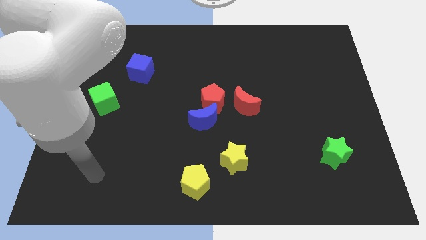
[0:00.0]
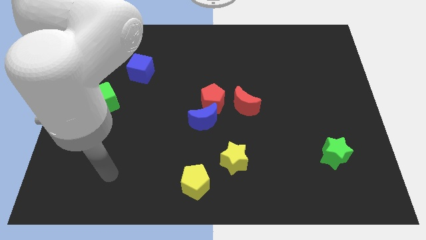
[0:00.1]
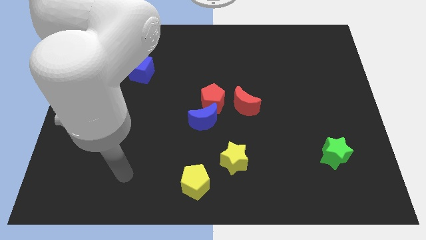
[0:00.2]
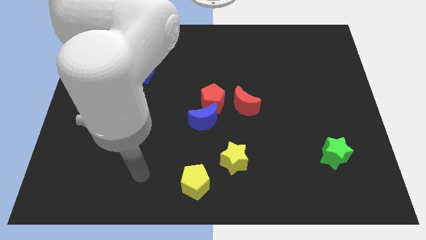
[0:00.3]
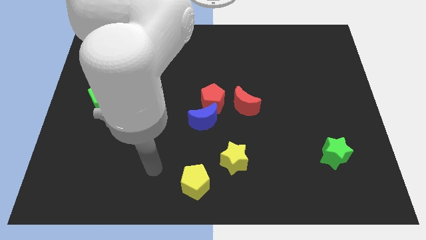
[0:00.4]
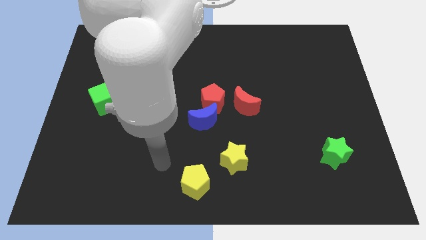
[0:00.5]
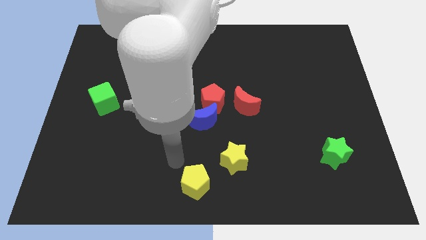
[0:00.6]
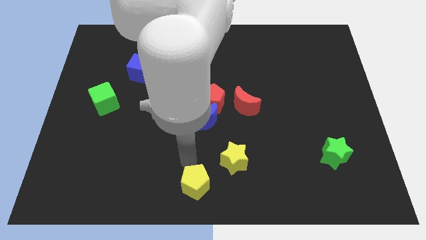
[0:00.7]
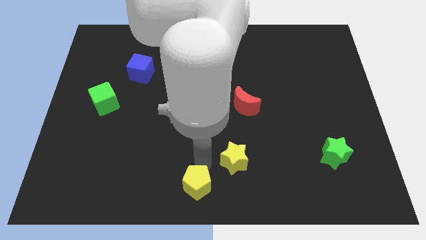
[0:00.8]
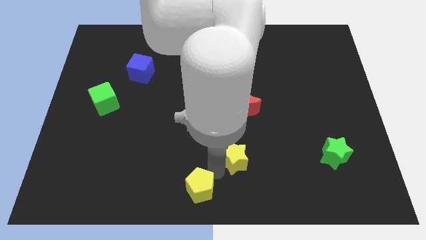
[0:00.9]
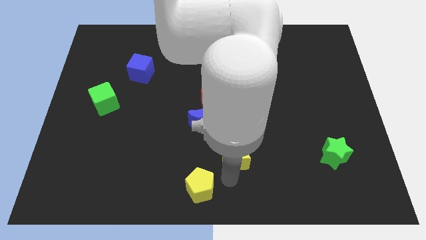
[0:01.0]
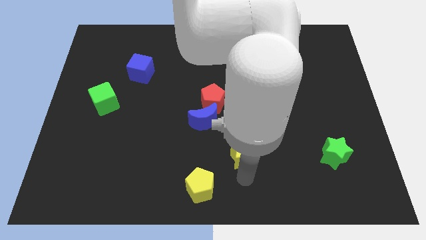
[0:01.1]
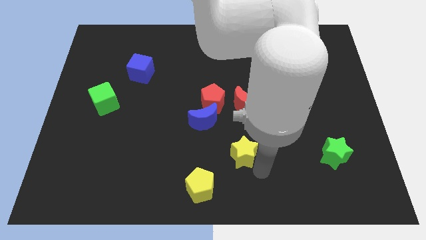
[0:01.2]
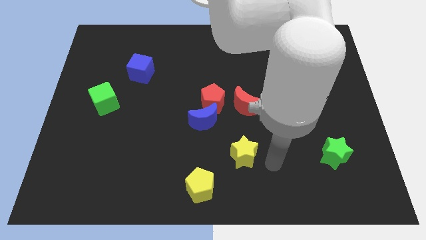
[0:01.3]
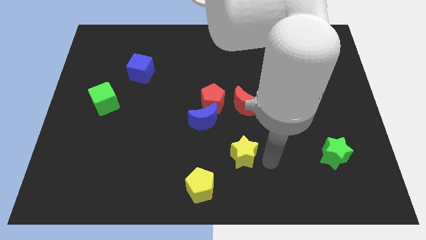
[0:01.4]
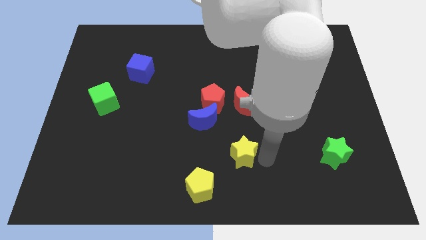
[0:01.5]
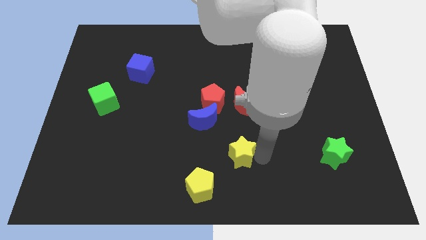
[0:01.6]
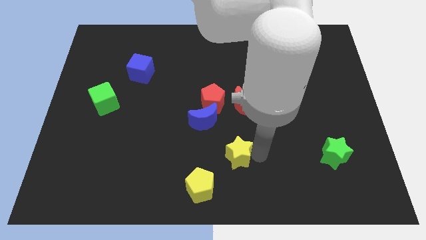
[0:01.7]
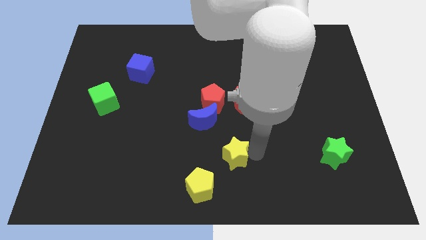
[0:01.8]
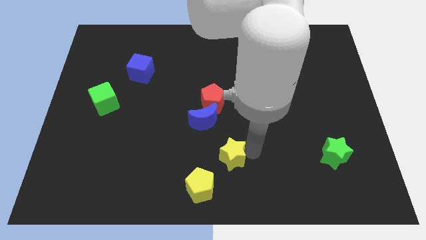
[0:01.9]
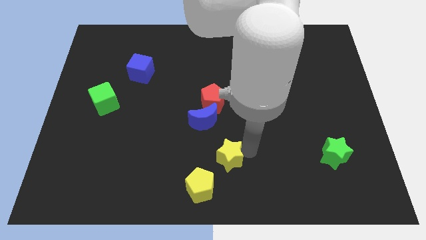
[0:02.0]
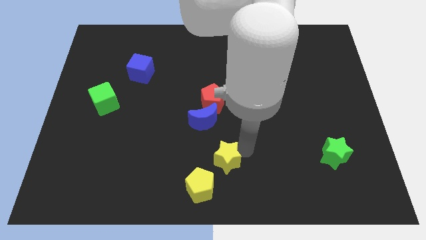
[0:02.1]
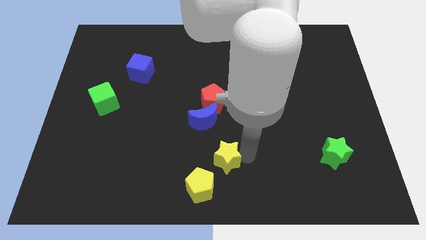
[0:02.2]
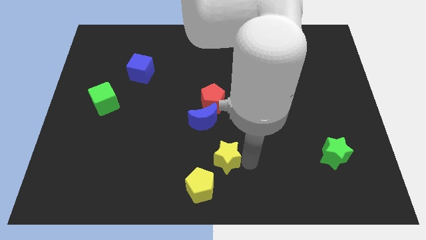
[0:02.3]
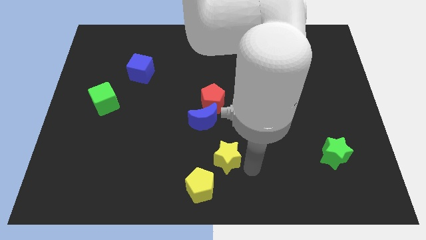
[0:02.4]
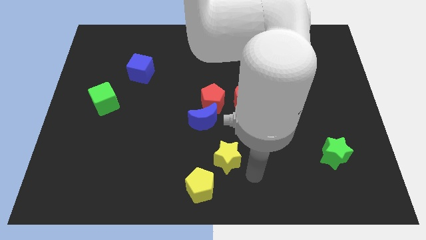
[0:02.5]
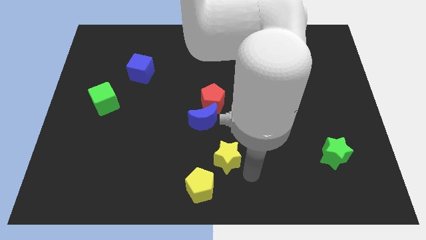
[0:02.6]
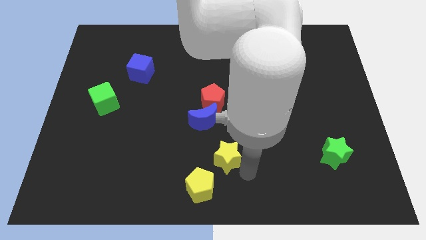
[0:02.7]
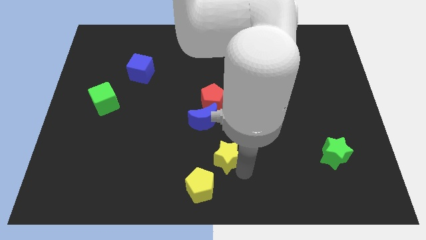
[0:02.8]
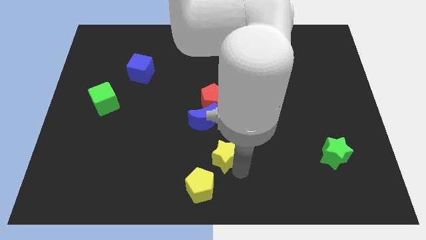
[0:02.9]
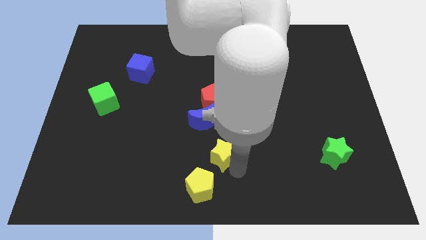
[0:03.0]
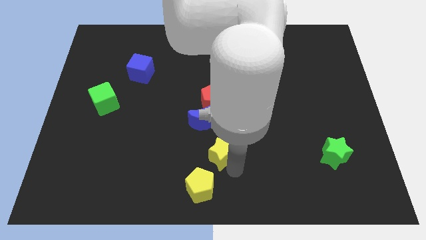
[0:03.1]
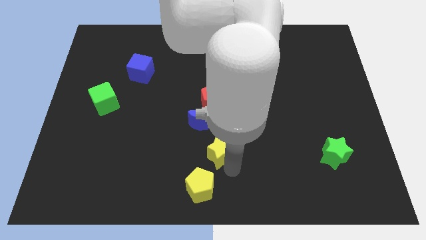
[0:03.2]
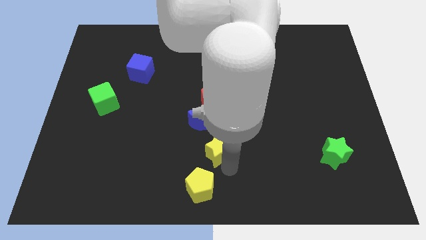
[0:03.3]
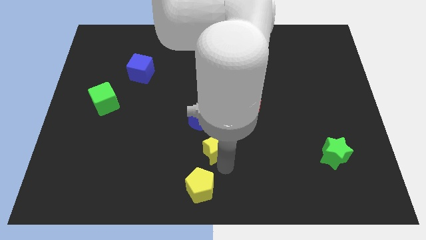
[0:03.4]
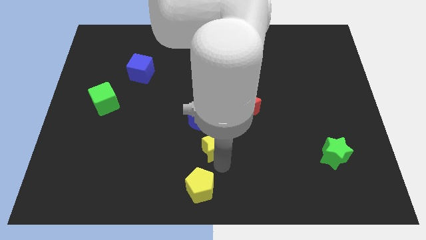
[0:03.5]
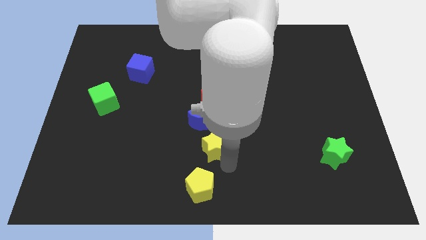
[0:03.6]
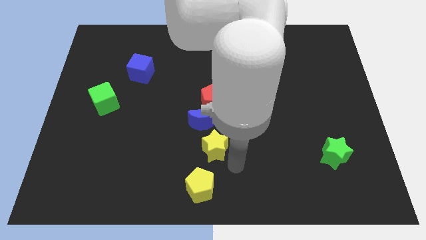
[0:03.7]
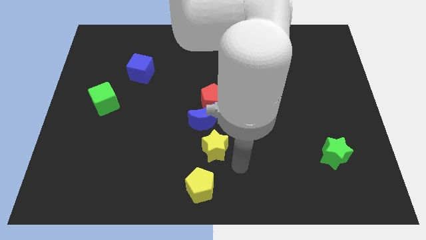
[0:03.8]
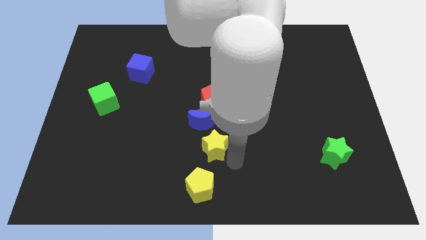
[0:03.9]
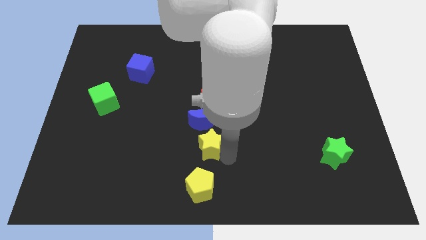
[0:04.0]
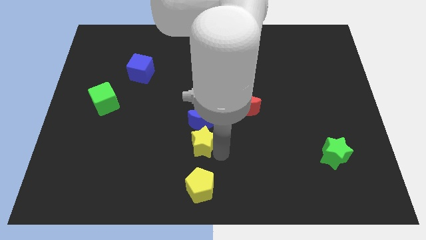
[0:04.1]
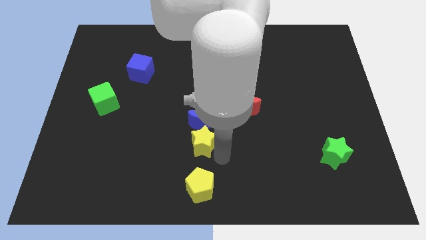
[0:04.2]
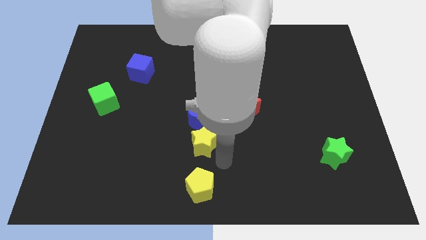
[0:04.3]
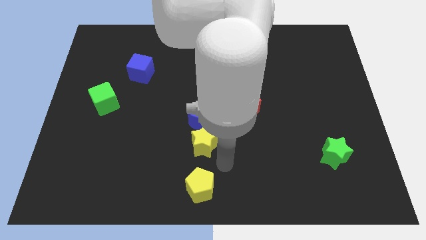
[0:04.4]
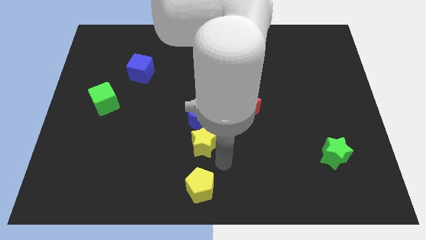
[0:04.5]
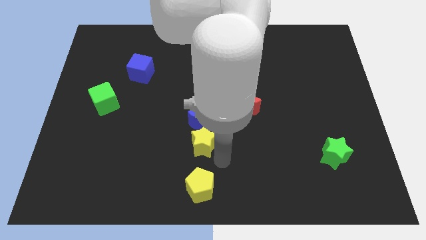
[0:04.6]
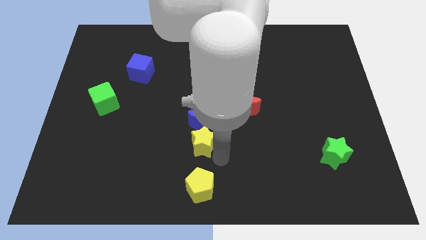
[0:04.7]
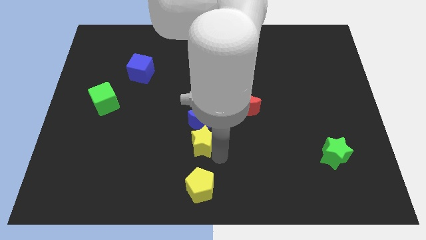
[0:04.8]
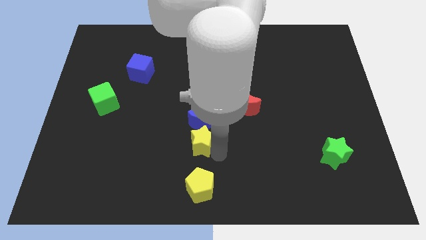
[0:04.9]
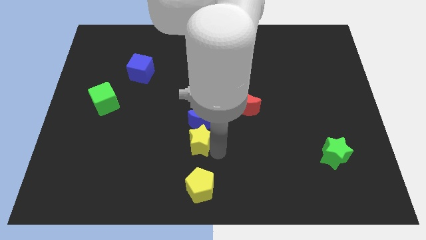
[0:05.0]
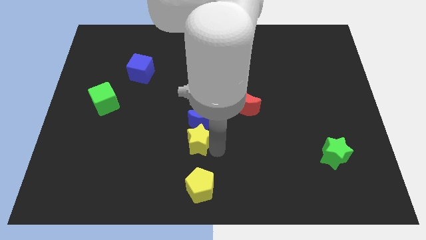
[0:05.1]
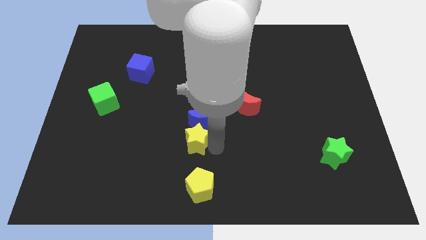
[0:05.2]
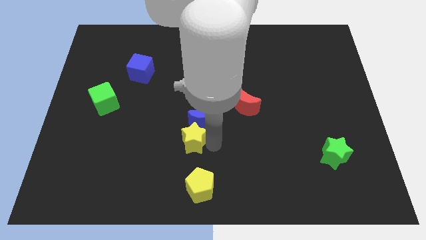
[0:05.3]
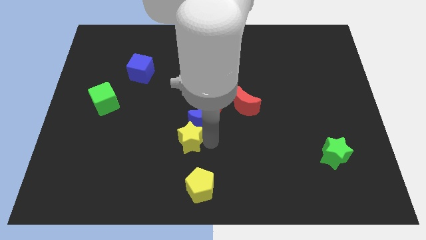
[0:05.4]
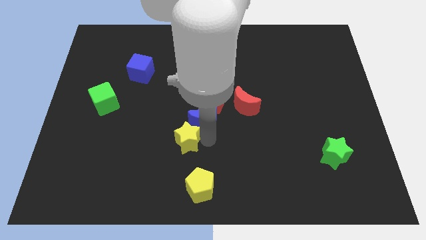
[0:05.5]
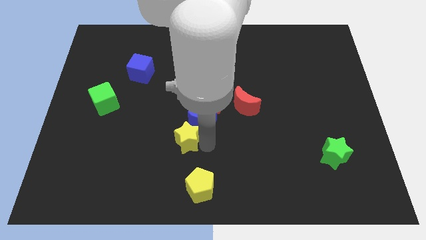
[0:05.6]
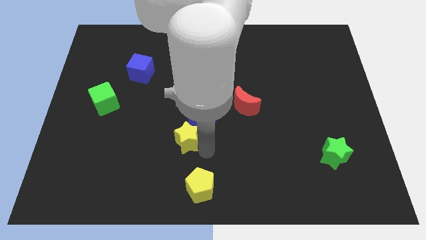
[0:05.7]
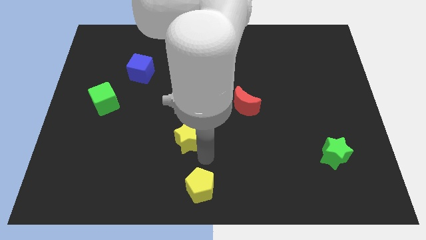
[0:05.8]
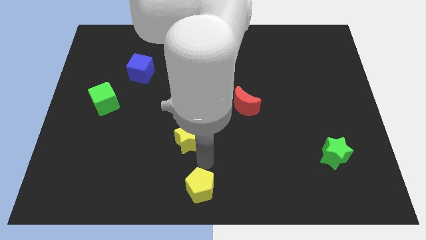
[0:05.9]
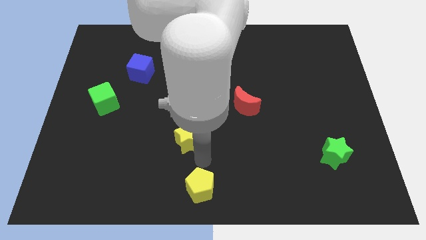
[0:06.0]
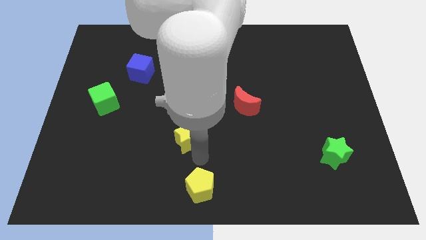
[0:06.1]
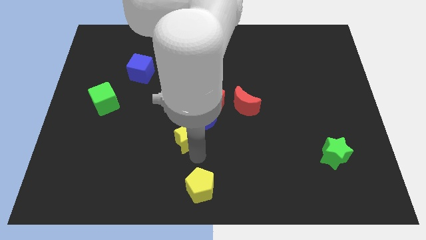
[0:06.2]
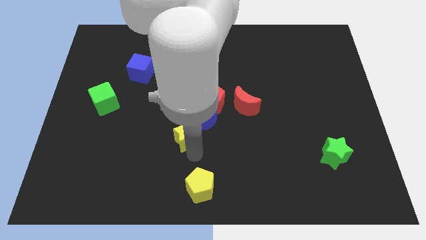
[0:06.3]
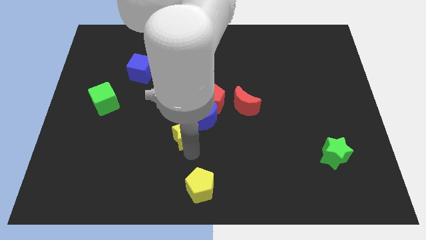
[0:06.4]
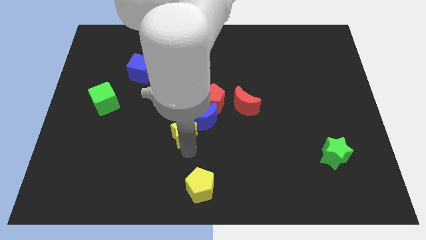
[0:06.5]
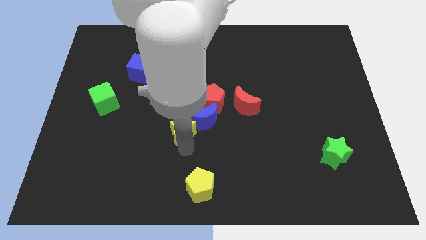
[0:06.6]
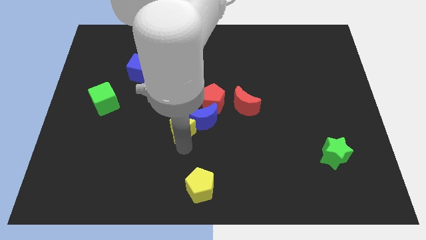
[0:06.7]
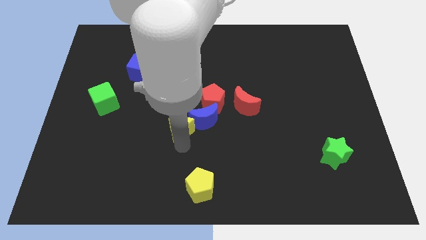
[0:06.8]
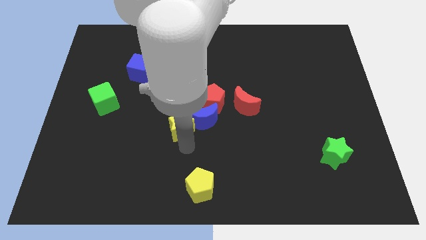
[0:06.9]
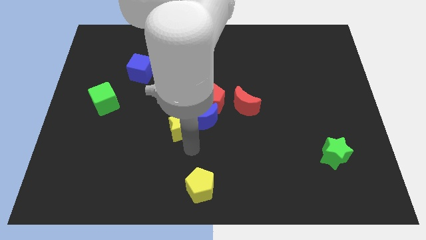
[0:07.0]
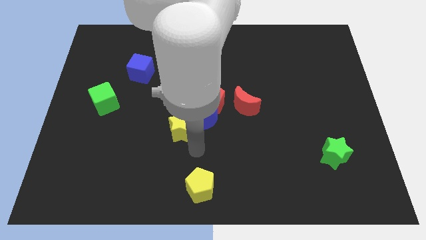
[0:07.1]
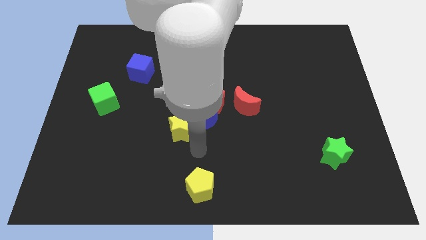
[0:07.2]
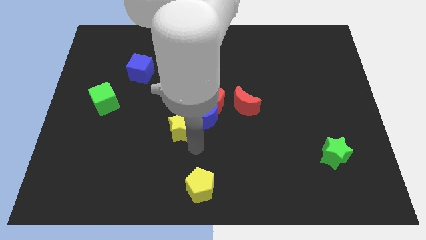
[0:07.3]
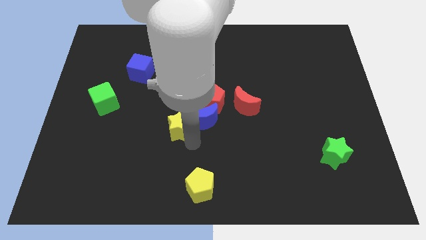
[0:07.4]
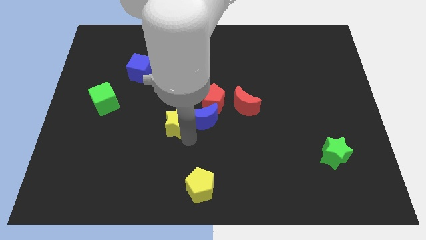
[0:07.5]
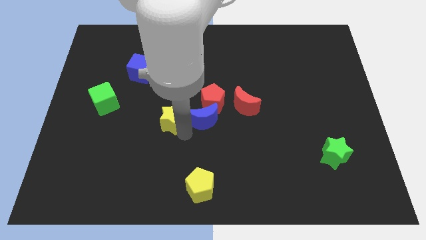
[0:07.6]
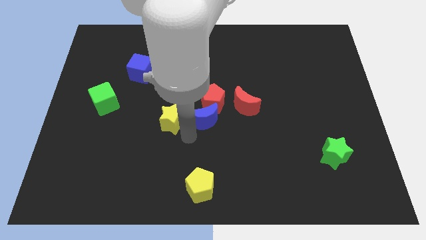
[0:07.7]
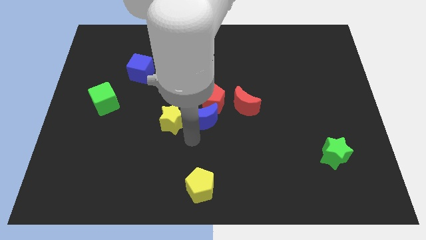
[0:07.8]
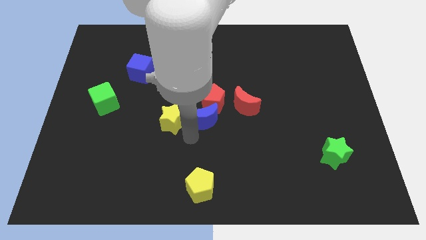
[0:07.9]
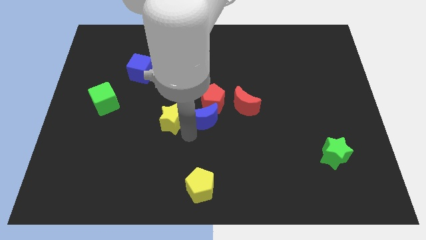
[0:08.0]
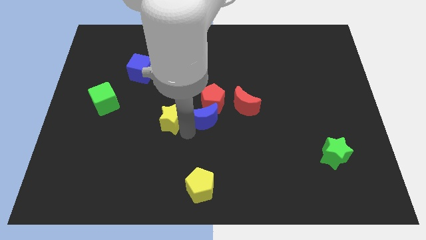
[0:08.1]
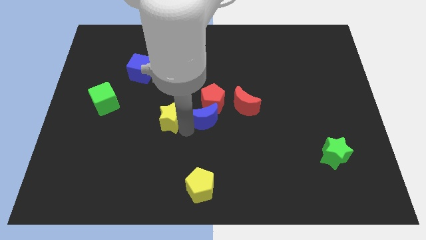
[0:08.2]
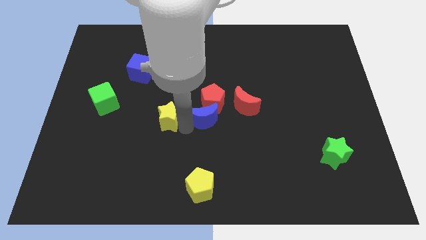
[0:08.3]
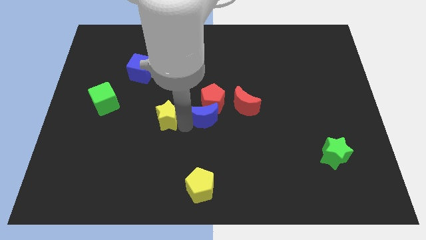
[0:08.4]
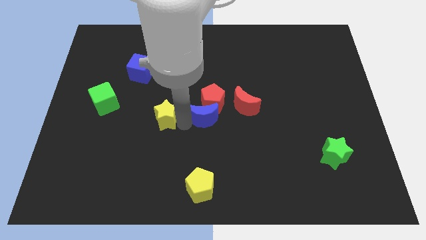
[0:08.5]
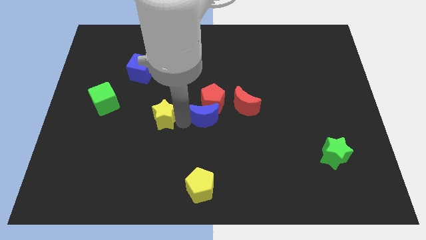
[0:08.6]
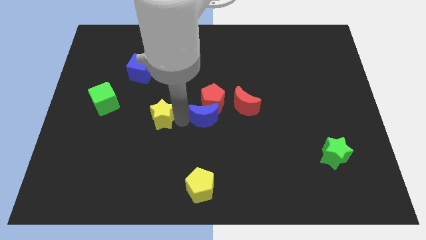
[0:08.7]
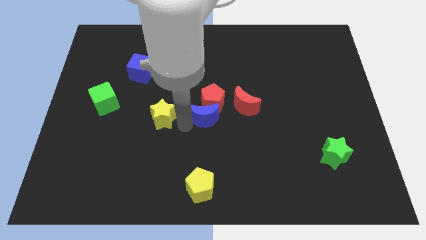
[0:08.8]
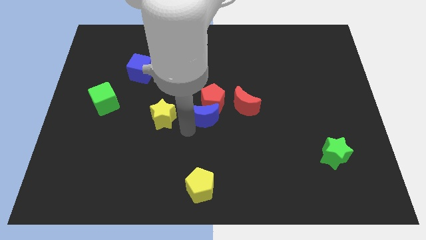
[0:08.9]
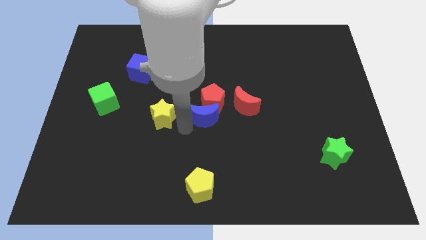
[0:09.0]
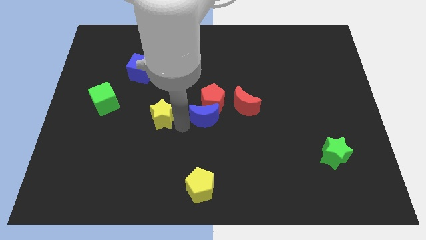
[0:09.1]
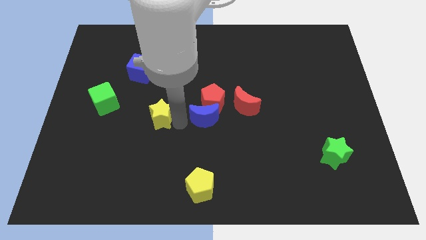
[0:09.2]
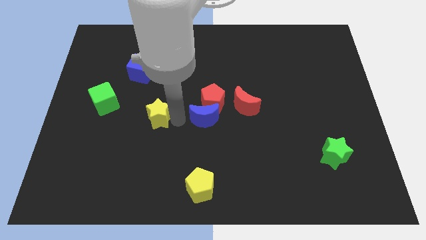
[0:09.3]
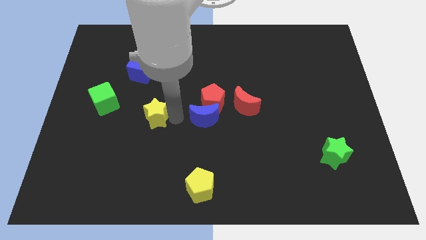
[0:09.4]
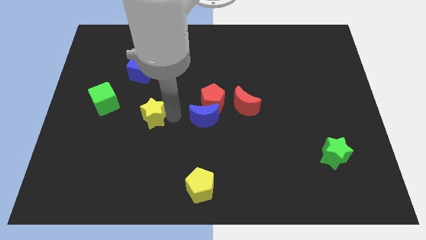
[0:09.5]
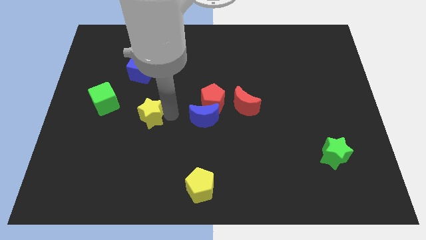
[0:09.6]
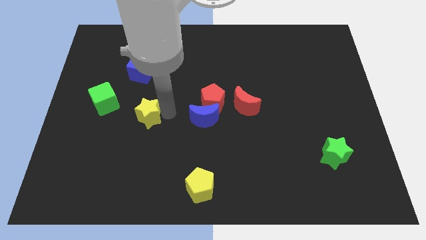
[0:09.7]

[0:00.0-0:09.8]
move the yellow star to the bottom side of the blue cube
